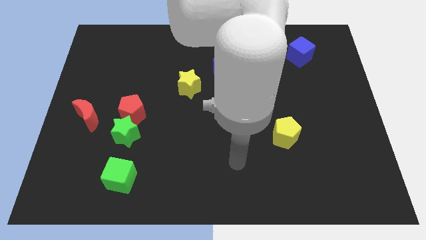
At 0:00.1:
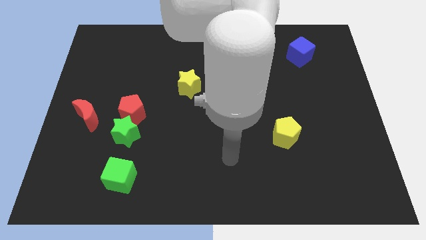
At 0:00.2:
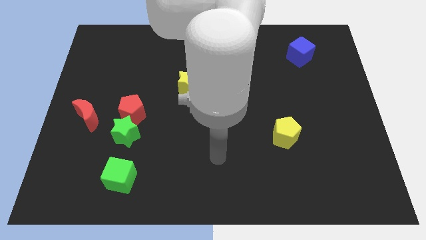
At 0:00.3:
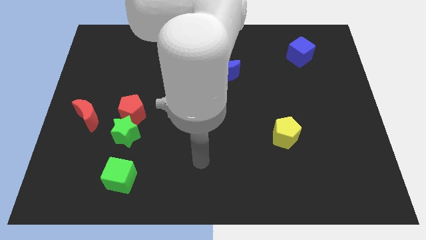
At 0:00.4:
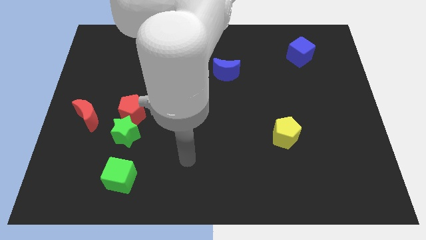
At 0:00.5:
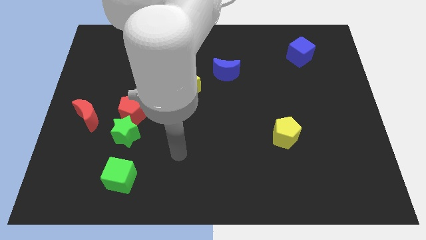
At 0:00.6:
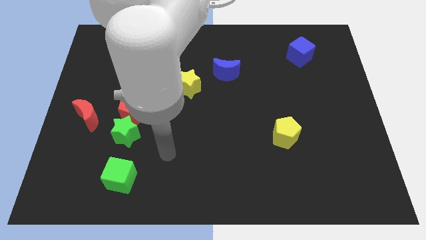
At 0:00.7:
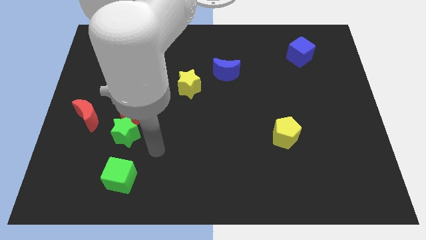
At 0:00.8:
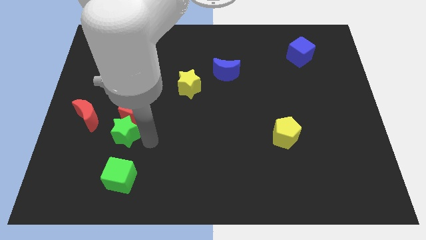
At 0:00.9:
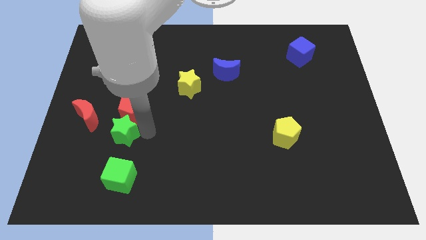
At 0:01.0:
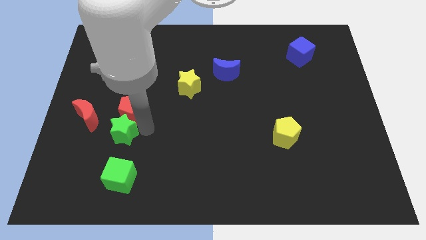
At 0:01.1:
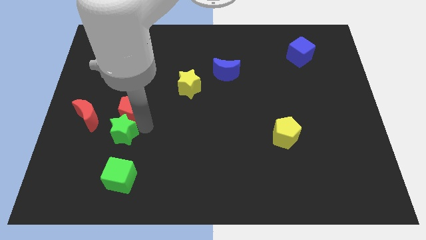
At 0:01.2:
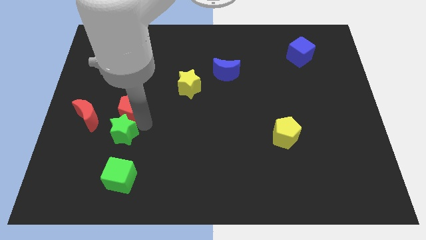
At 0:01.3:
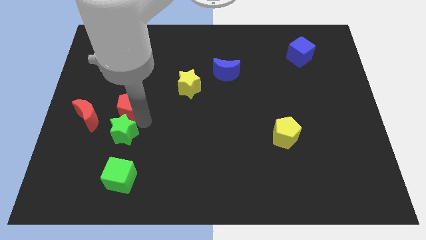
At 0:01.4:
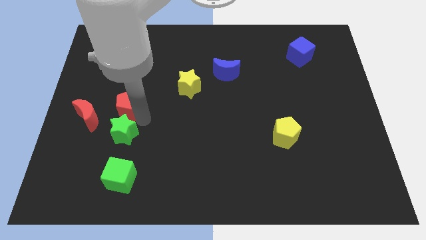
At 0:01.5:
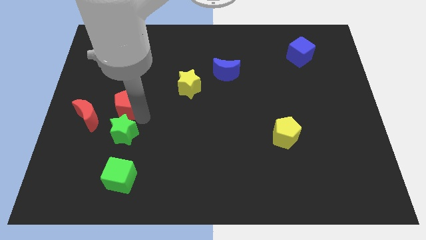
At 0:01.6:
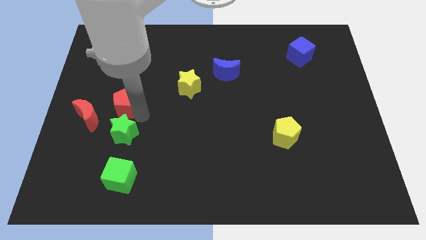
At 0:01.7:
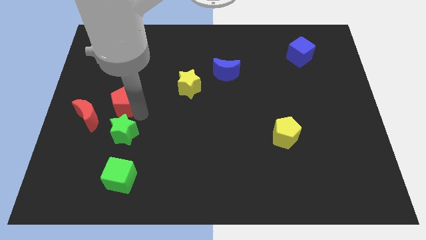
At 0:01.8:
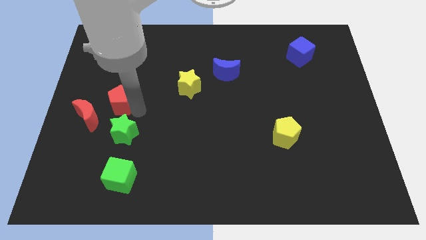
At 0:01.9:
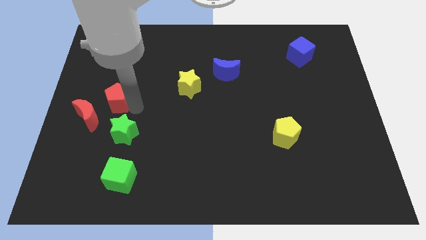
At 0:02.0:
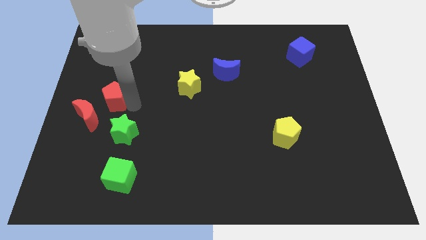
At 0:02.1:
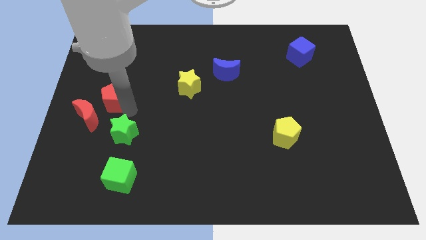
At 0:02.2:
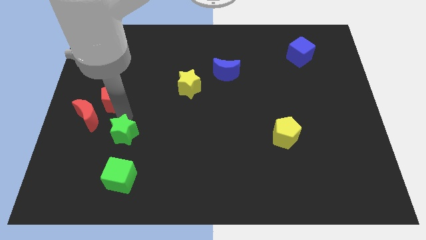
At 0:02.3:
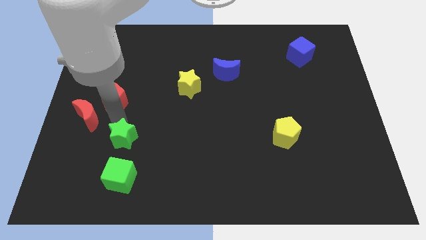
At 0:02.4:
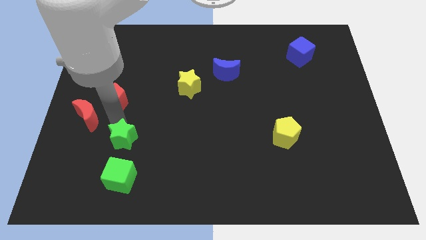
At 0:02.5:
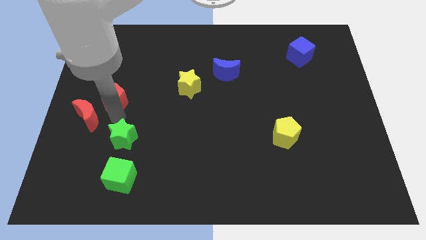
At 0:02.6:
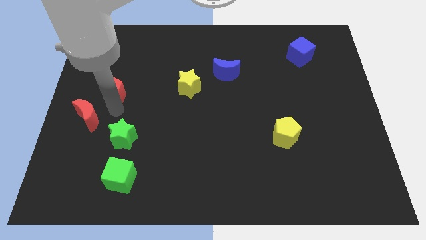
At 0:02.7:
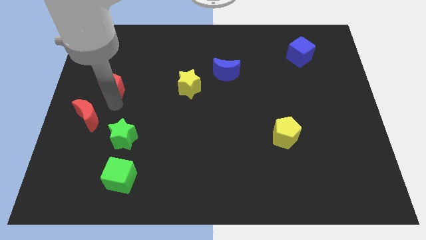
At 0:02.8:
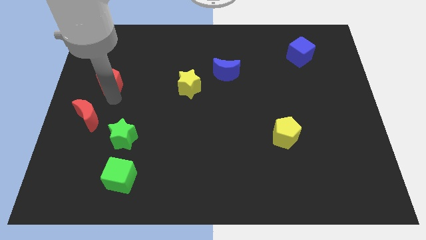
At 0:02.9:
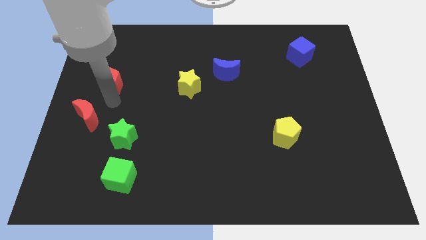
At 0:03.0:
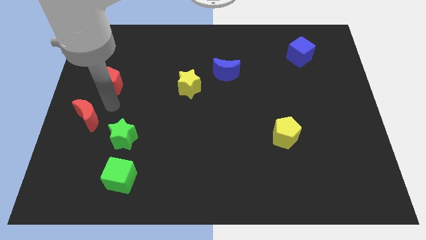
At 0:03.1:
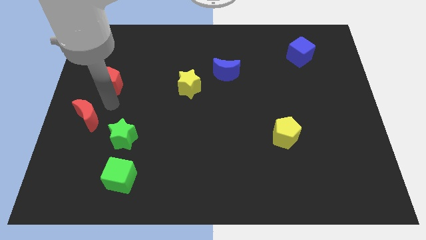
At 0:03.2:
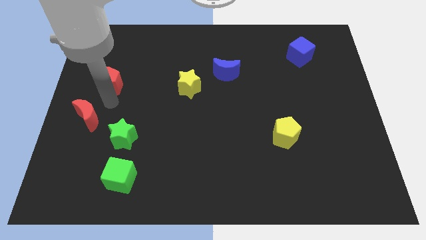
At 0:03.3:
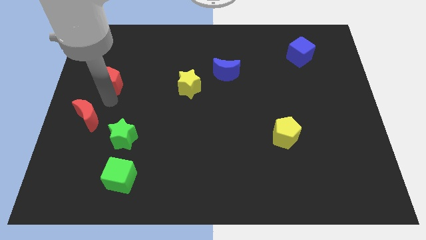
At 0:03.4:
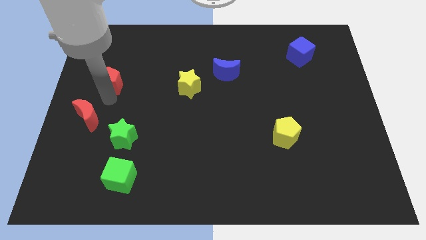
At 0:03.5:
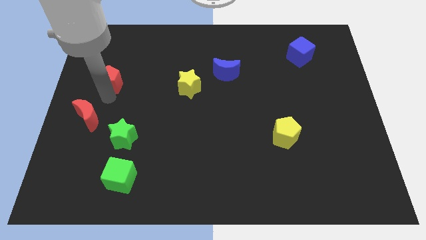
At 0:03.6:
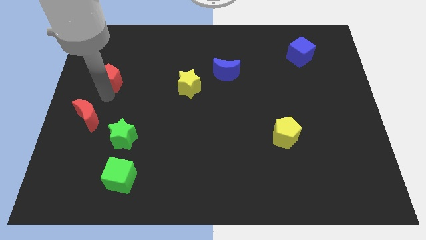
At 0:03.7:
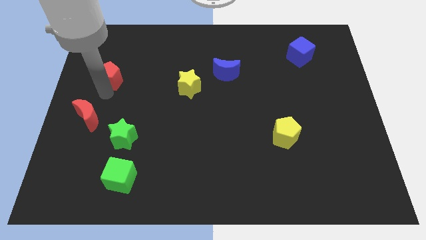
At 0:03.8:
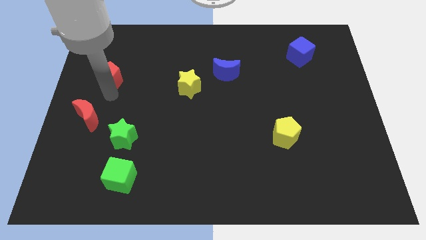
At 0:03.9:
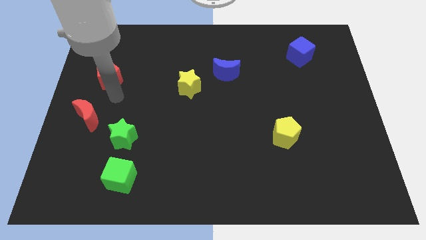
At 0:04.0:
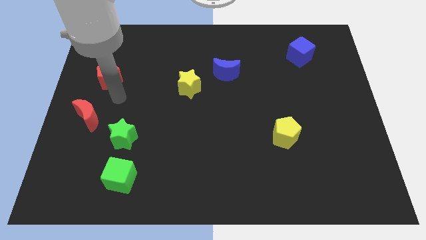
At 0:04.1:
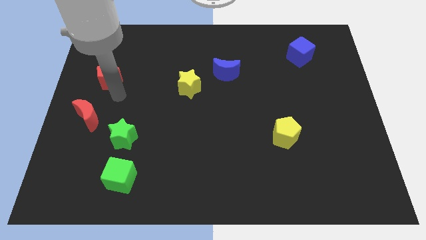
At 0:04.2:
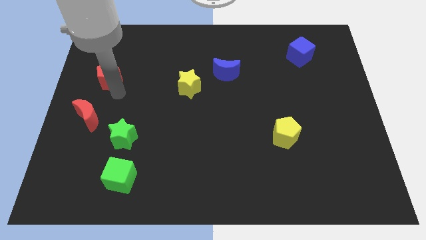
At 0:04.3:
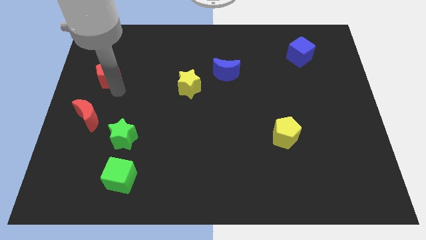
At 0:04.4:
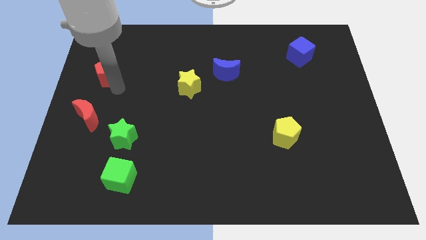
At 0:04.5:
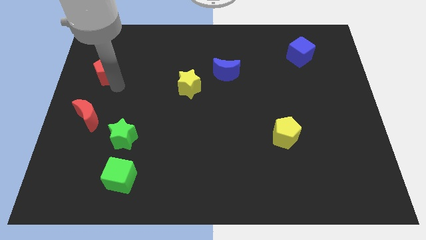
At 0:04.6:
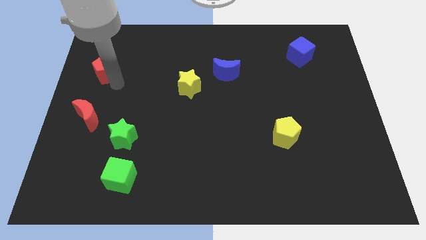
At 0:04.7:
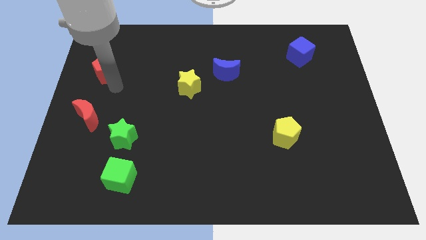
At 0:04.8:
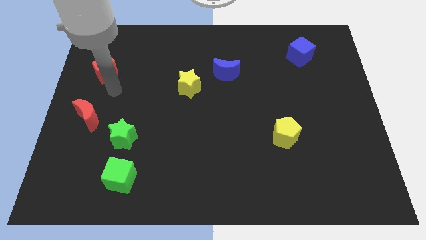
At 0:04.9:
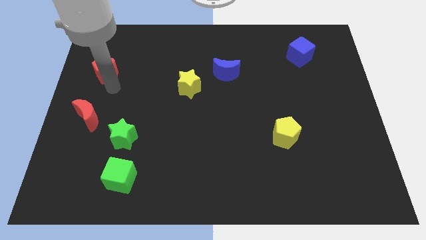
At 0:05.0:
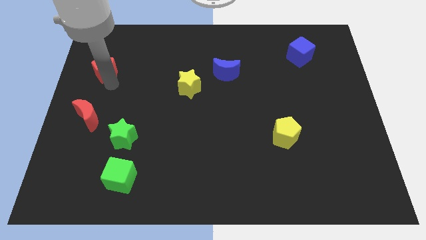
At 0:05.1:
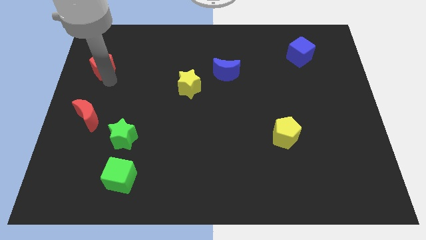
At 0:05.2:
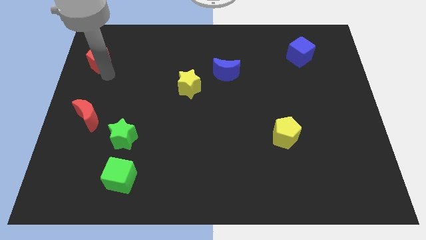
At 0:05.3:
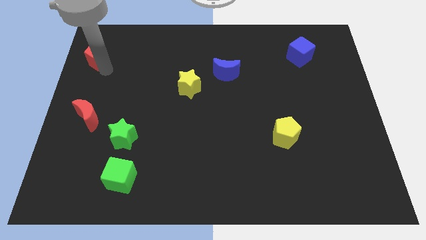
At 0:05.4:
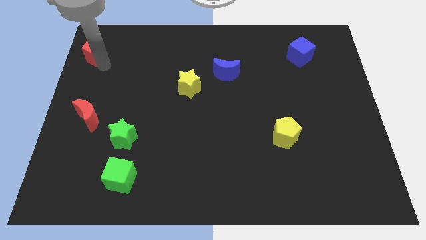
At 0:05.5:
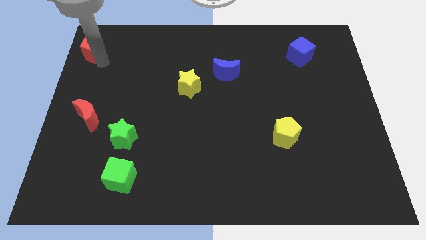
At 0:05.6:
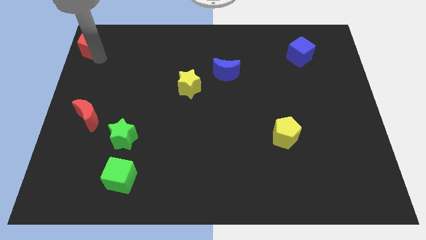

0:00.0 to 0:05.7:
push the red pentagon to the top left corner

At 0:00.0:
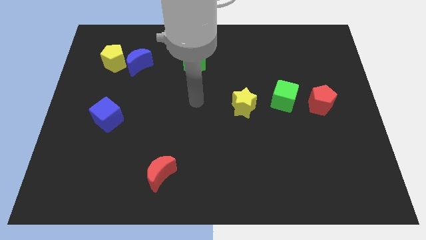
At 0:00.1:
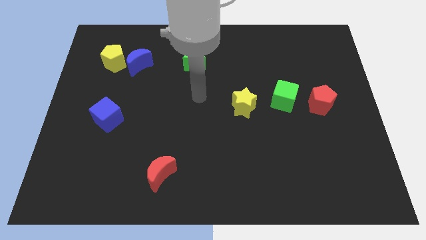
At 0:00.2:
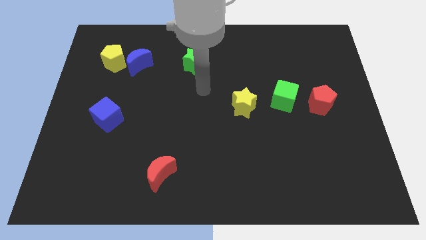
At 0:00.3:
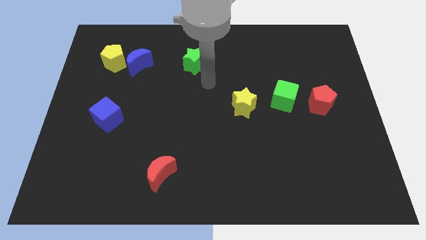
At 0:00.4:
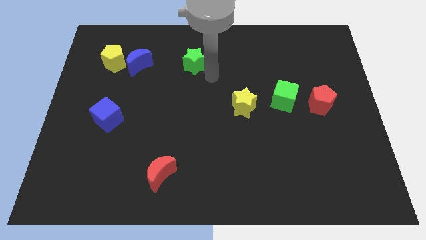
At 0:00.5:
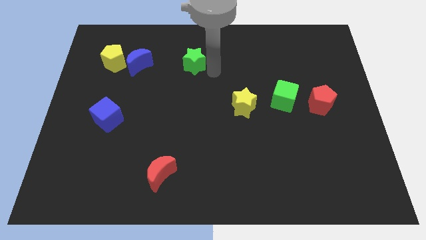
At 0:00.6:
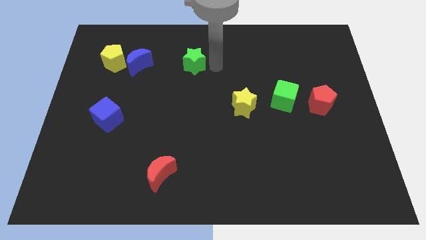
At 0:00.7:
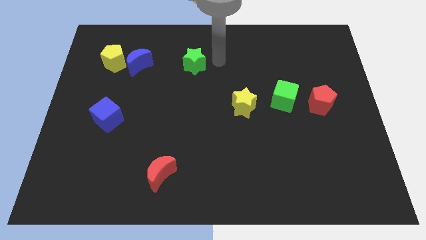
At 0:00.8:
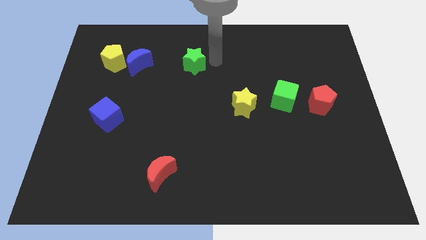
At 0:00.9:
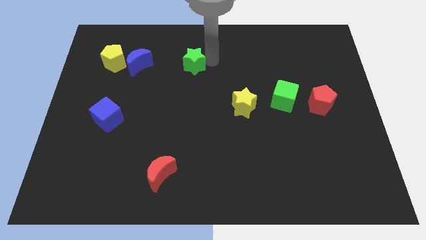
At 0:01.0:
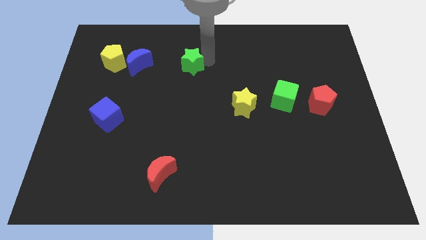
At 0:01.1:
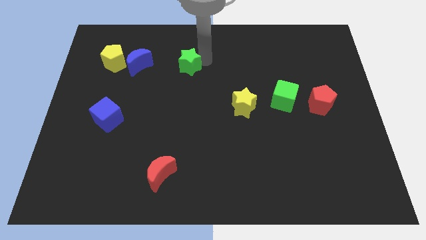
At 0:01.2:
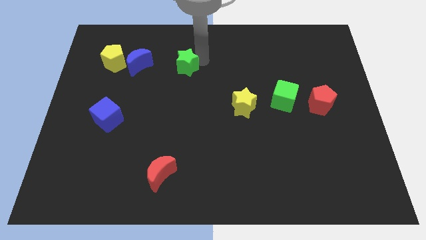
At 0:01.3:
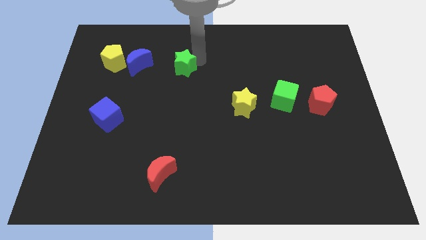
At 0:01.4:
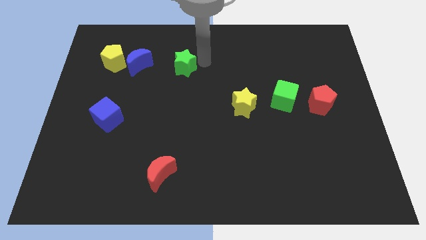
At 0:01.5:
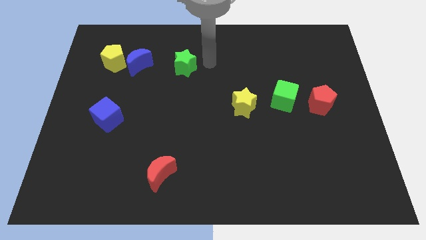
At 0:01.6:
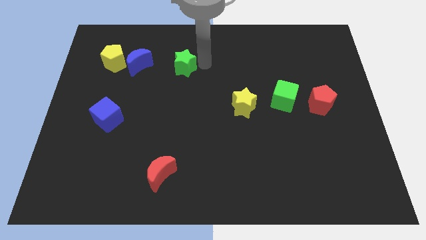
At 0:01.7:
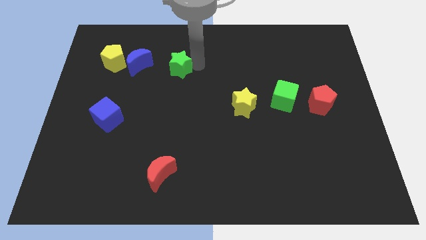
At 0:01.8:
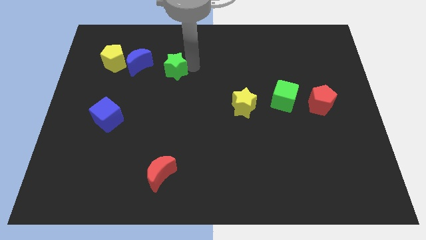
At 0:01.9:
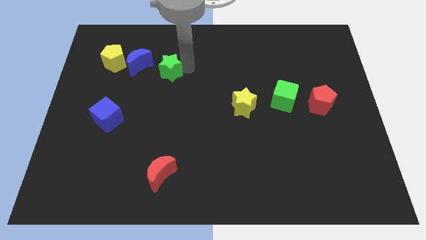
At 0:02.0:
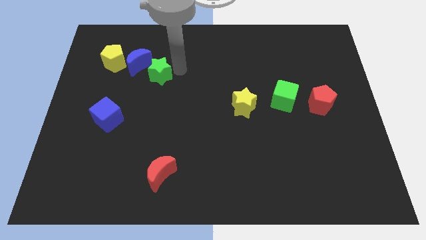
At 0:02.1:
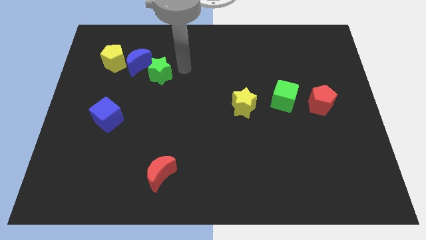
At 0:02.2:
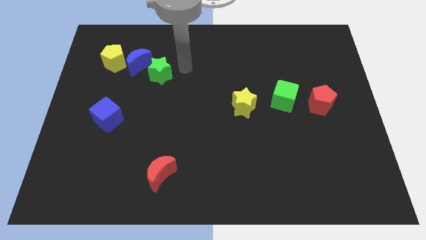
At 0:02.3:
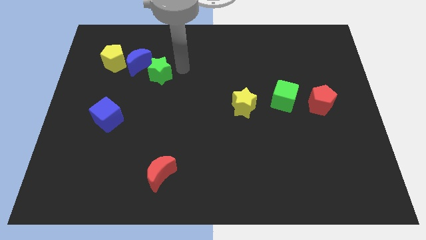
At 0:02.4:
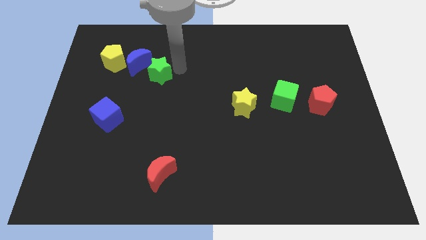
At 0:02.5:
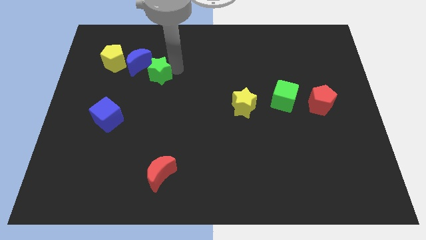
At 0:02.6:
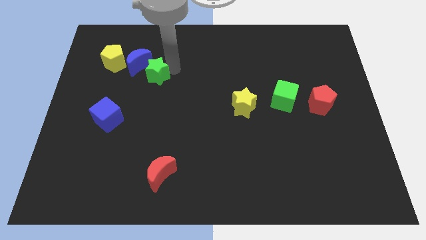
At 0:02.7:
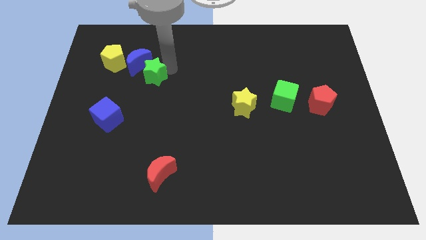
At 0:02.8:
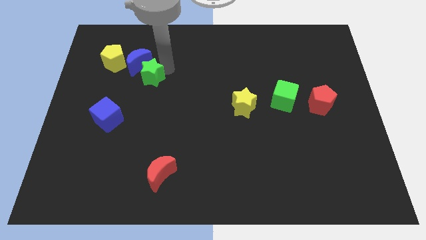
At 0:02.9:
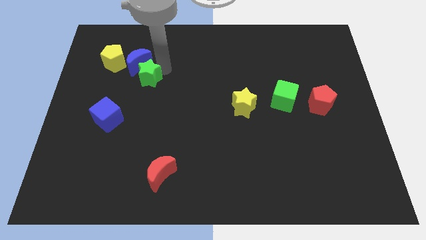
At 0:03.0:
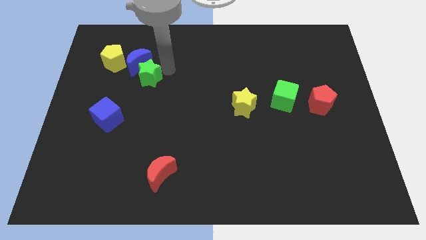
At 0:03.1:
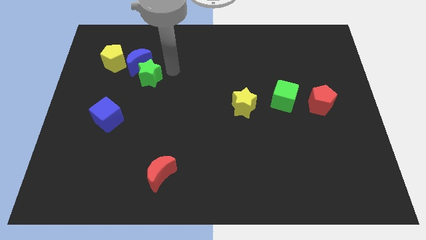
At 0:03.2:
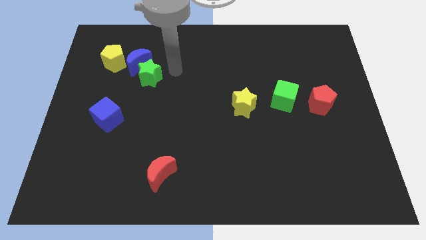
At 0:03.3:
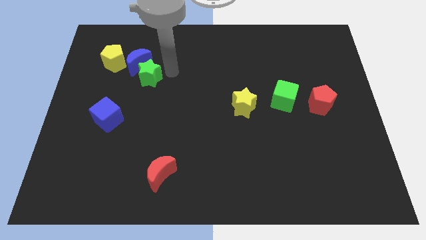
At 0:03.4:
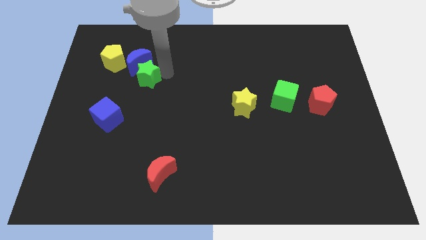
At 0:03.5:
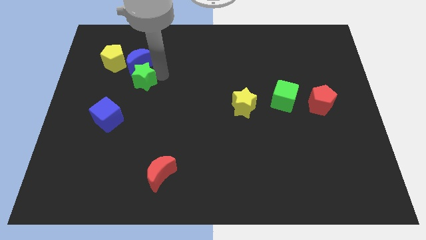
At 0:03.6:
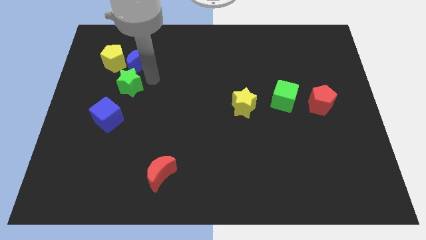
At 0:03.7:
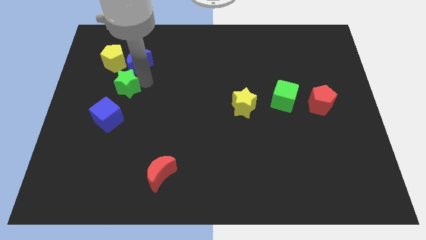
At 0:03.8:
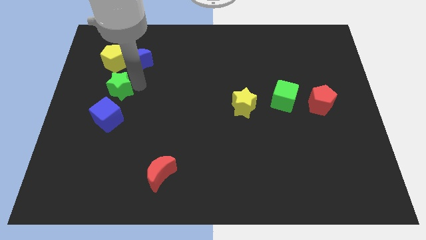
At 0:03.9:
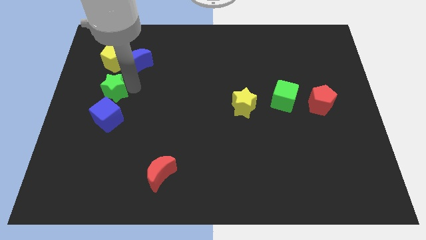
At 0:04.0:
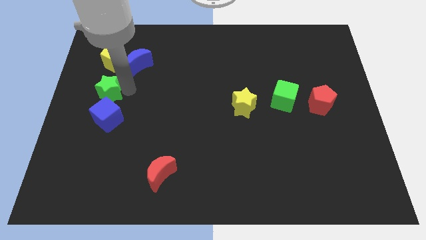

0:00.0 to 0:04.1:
slide the green star to the center left
